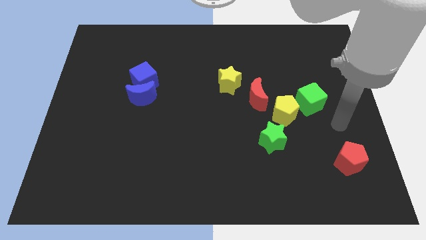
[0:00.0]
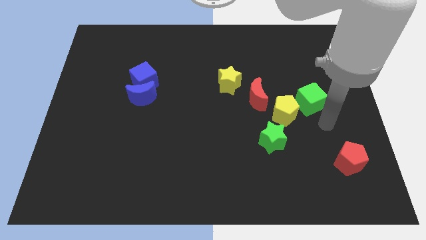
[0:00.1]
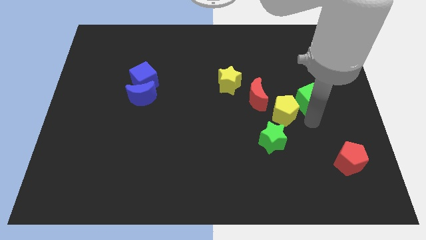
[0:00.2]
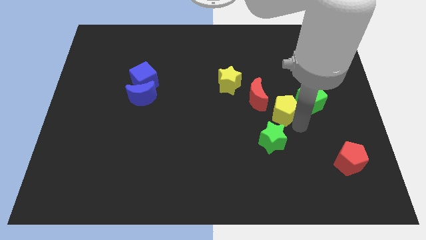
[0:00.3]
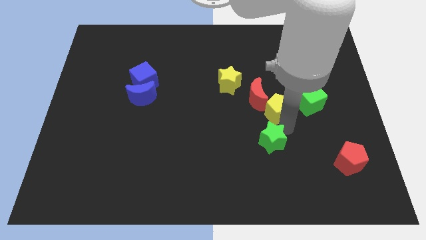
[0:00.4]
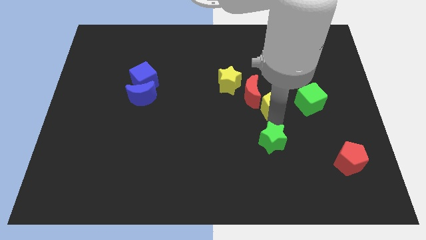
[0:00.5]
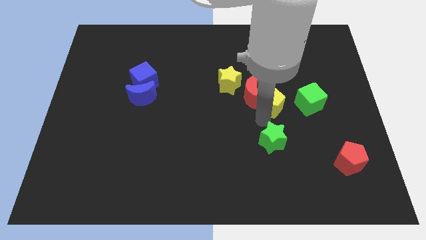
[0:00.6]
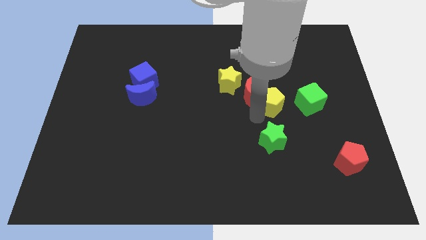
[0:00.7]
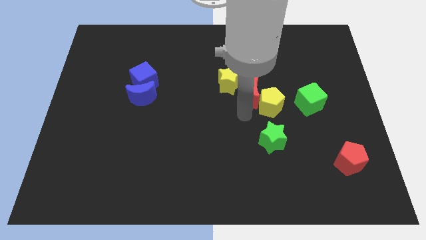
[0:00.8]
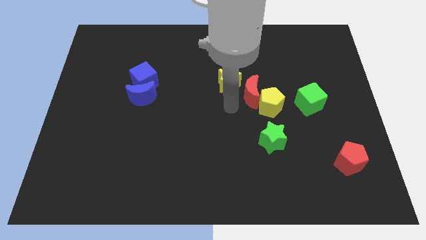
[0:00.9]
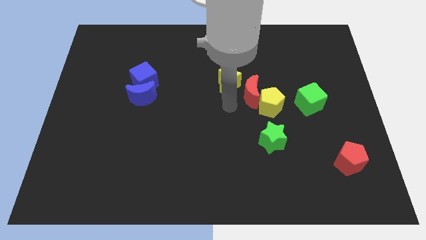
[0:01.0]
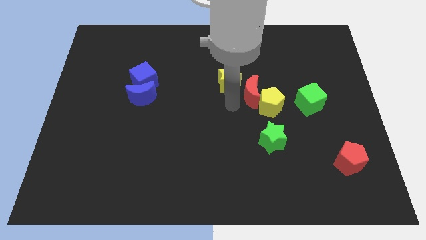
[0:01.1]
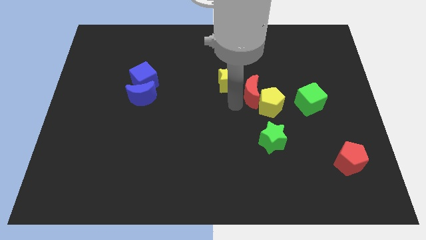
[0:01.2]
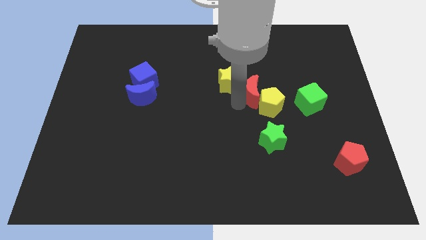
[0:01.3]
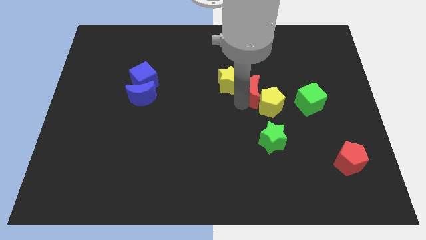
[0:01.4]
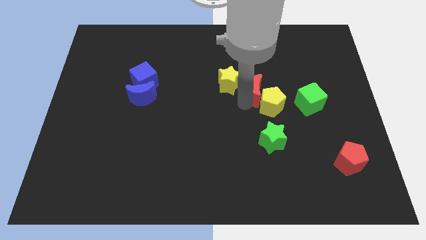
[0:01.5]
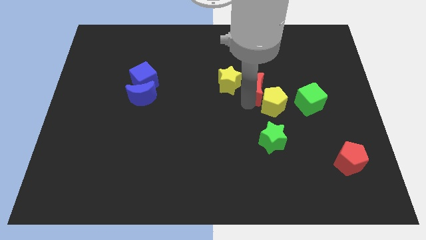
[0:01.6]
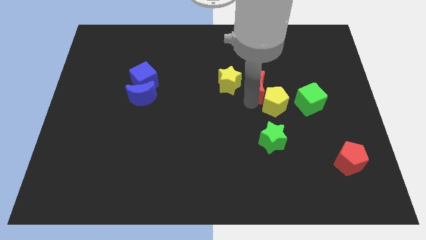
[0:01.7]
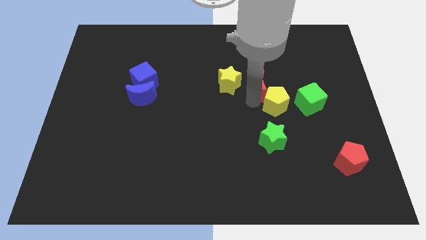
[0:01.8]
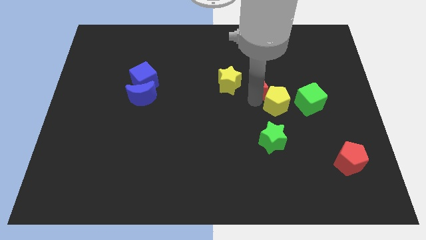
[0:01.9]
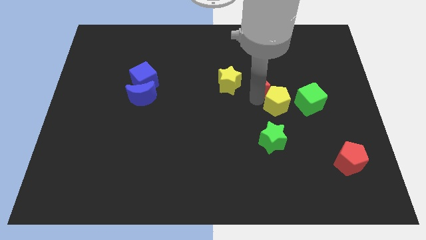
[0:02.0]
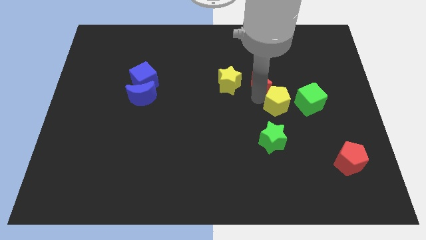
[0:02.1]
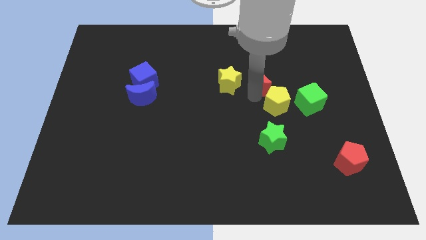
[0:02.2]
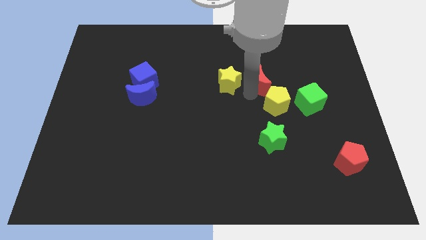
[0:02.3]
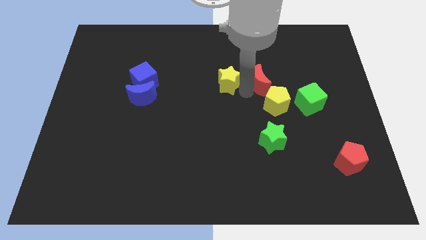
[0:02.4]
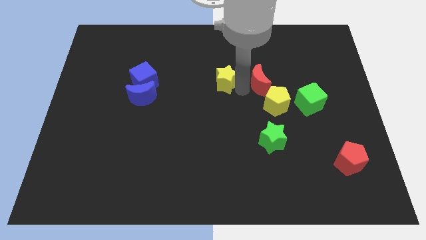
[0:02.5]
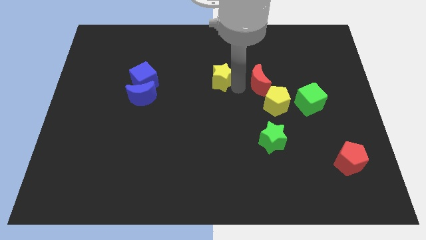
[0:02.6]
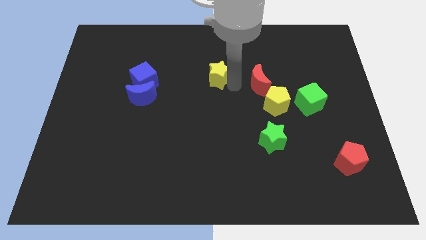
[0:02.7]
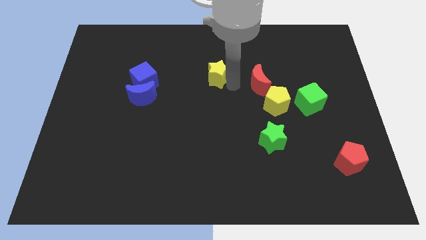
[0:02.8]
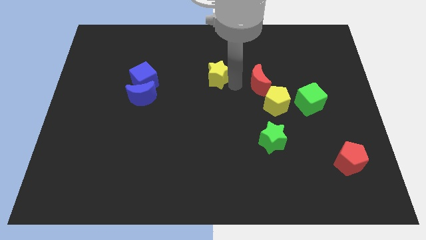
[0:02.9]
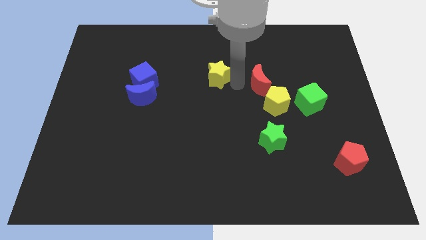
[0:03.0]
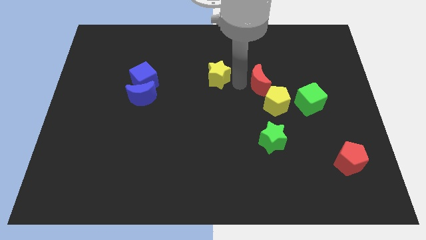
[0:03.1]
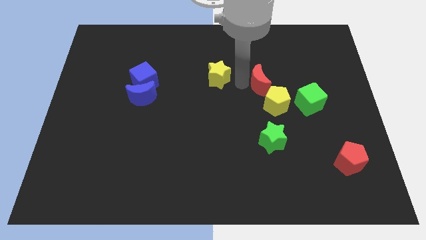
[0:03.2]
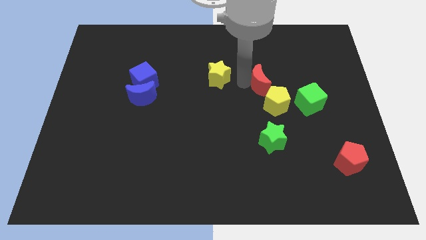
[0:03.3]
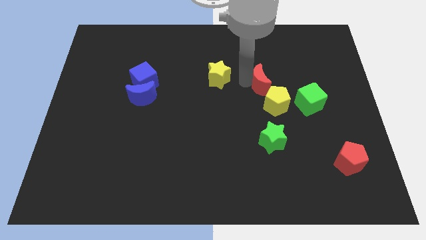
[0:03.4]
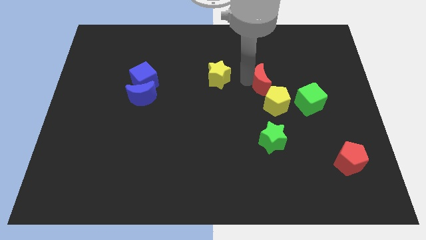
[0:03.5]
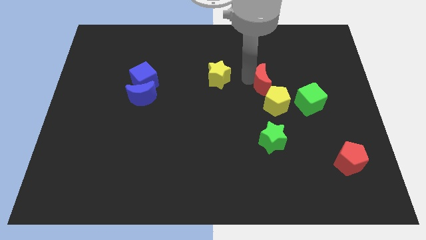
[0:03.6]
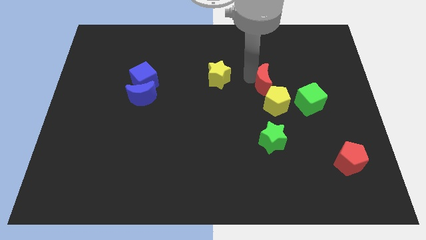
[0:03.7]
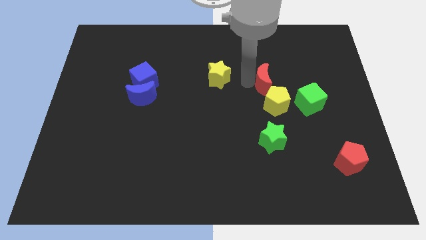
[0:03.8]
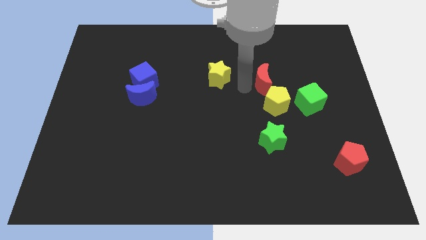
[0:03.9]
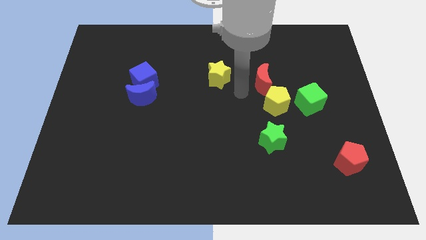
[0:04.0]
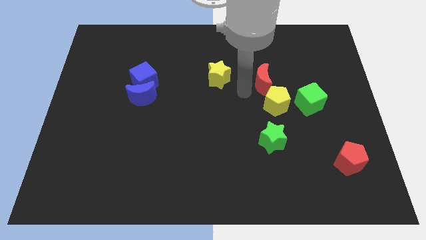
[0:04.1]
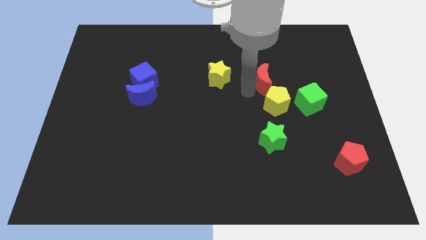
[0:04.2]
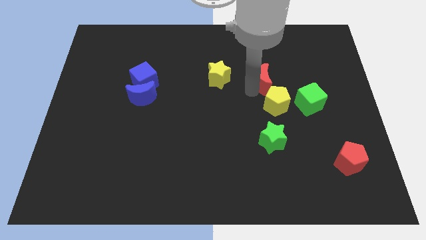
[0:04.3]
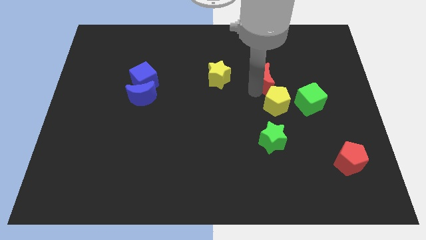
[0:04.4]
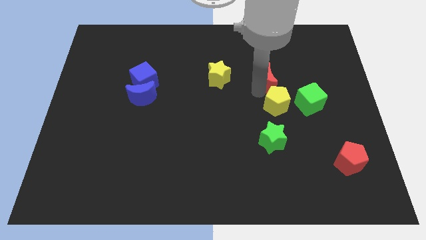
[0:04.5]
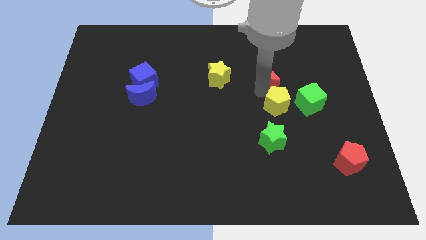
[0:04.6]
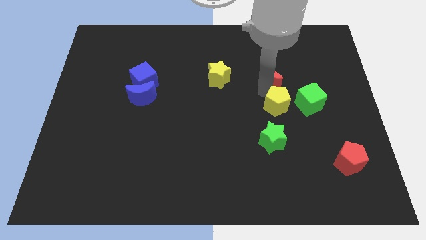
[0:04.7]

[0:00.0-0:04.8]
move the red moon up and to the right diagonally a little bit

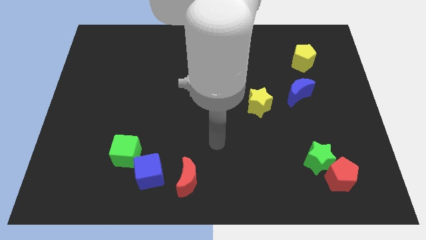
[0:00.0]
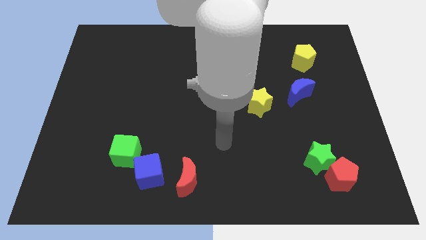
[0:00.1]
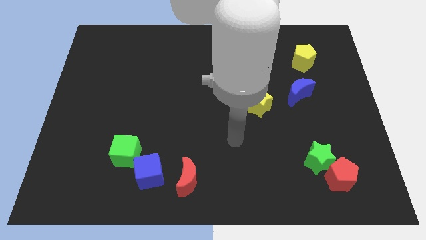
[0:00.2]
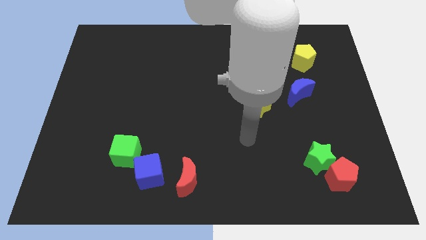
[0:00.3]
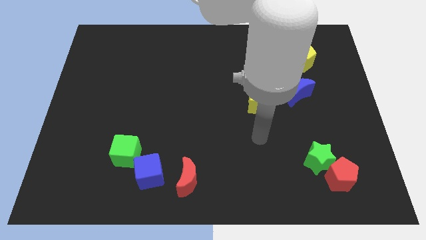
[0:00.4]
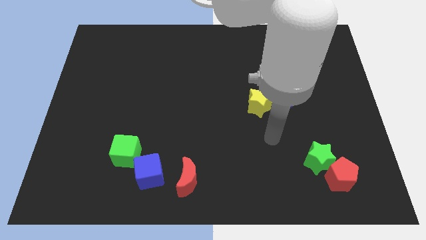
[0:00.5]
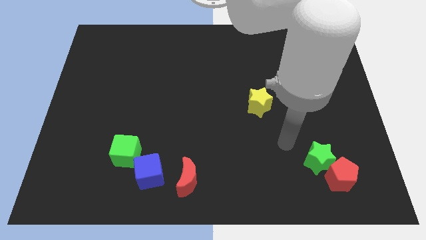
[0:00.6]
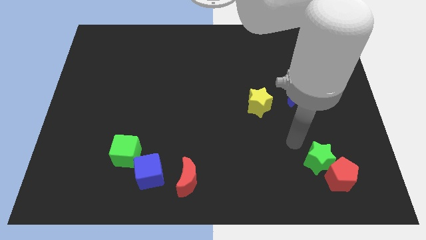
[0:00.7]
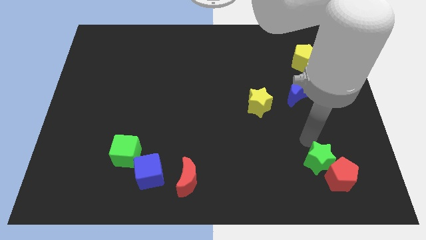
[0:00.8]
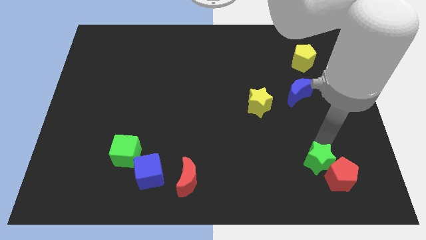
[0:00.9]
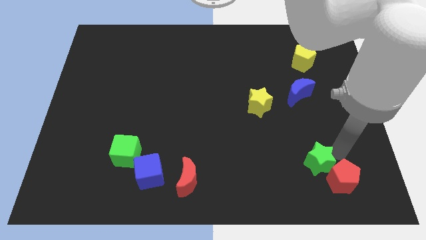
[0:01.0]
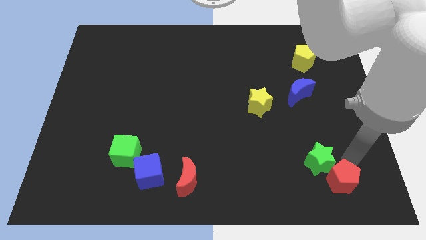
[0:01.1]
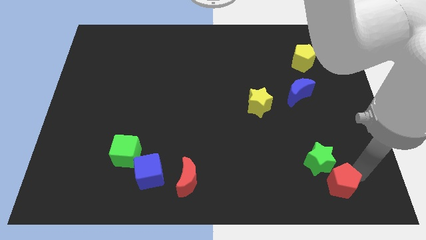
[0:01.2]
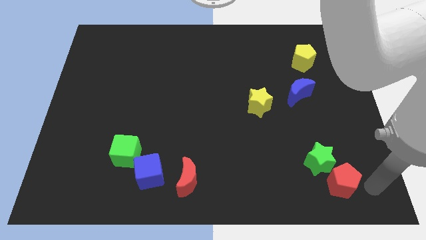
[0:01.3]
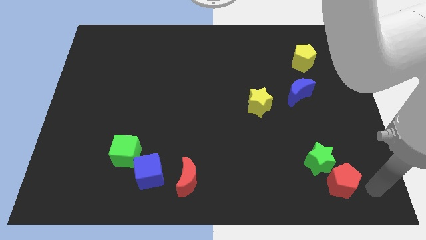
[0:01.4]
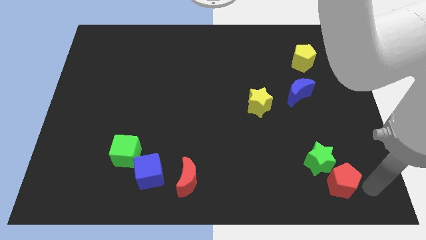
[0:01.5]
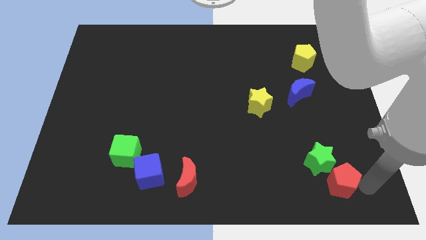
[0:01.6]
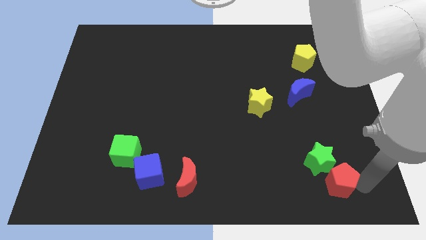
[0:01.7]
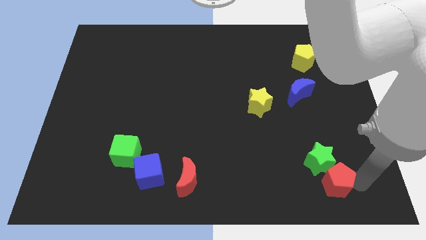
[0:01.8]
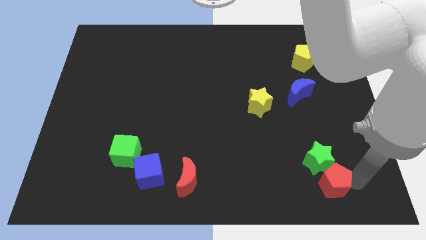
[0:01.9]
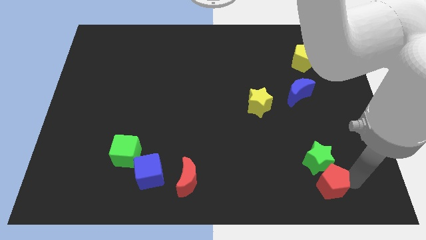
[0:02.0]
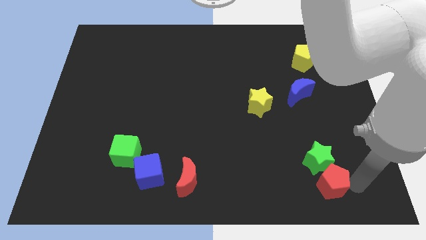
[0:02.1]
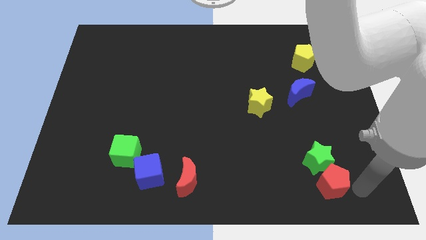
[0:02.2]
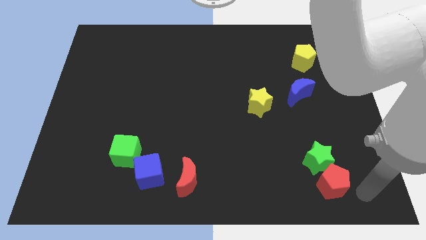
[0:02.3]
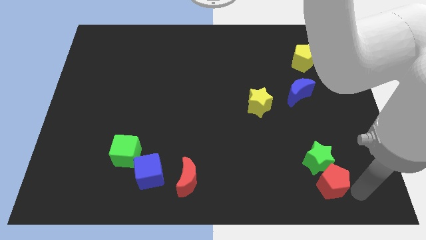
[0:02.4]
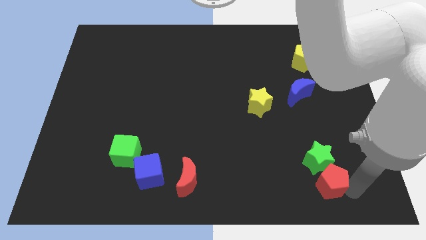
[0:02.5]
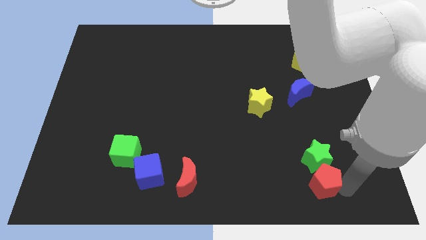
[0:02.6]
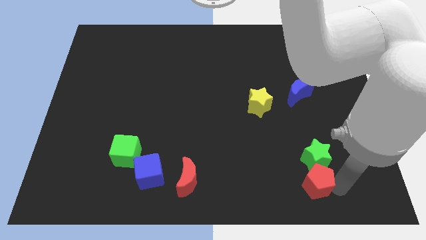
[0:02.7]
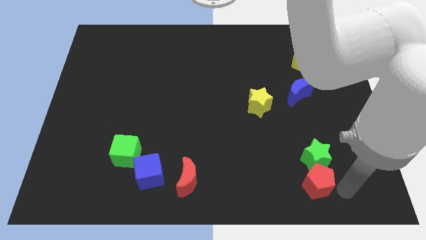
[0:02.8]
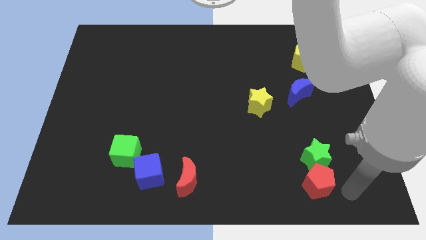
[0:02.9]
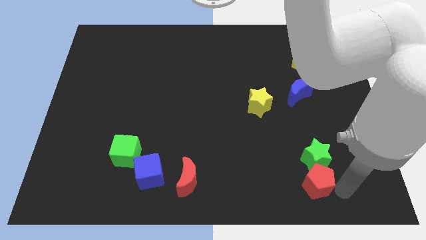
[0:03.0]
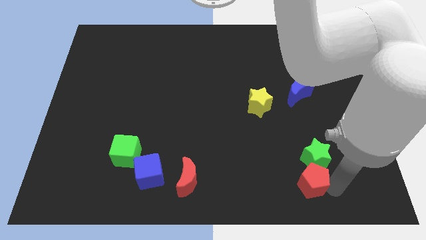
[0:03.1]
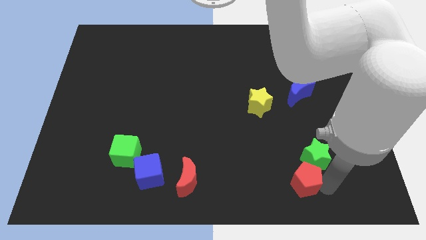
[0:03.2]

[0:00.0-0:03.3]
slightly slide the red pentagon to the left
